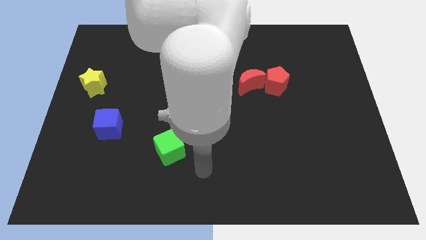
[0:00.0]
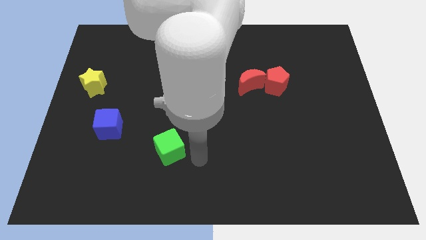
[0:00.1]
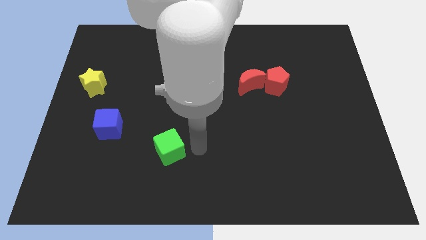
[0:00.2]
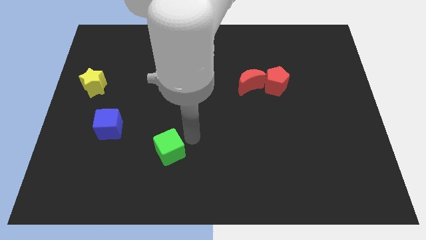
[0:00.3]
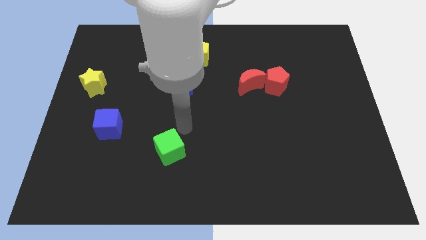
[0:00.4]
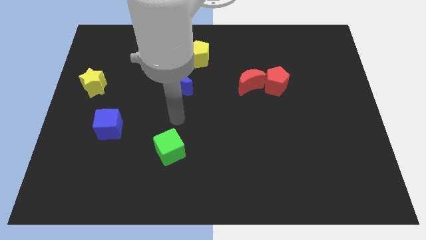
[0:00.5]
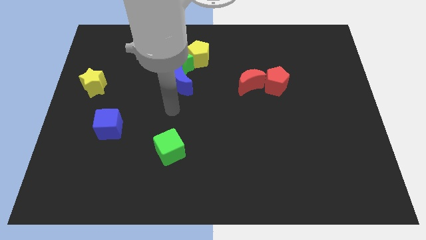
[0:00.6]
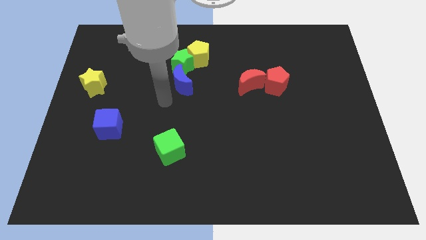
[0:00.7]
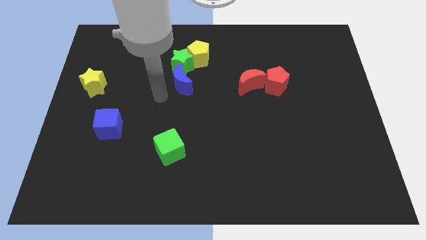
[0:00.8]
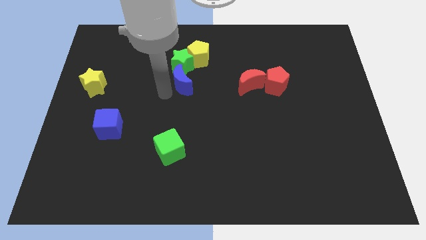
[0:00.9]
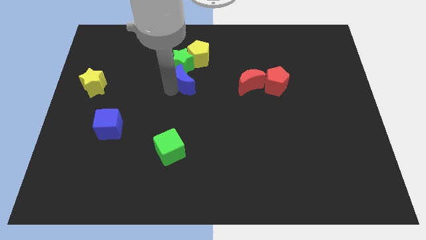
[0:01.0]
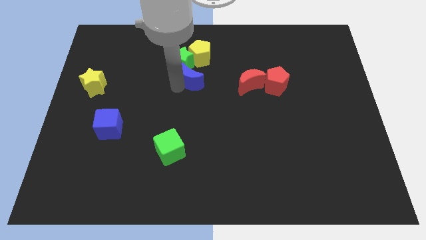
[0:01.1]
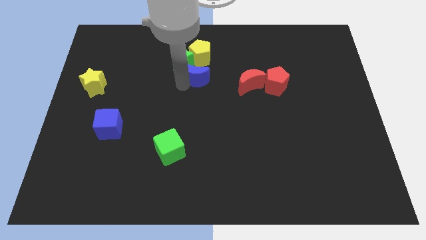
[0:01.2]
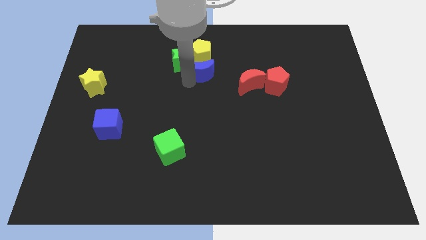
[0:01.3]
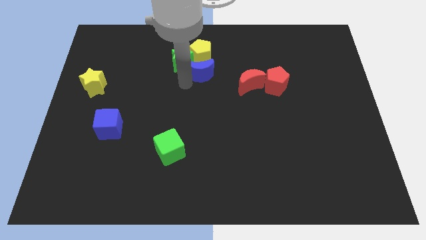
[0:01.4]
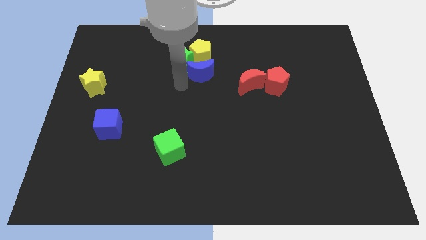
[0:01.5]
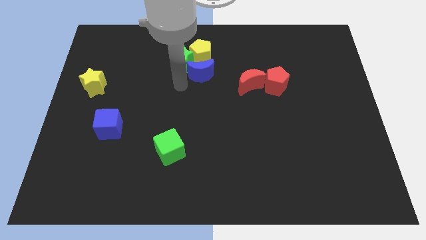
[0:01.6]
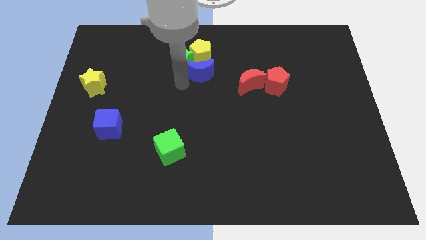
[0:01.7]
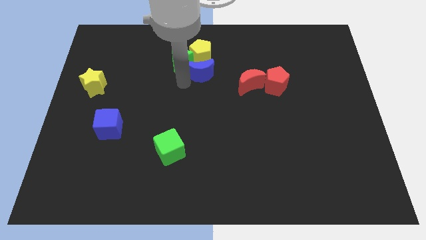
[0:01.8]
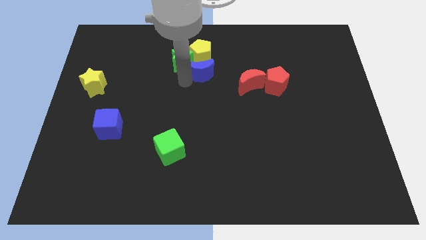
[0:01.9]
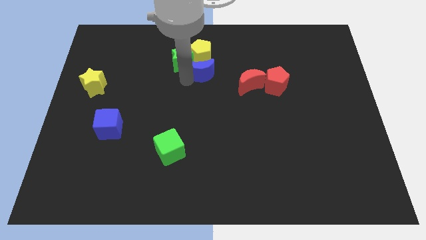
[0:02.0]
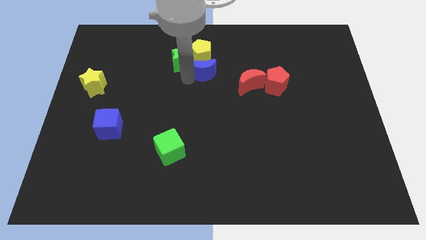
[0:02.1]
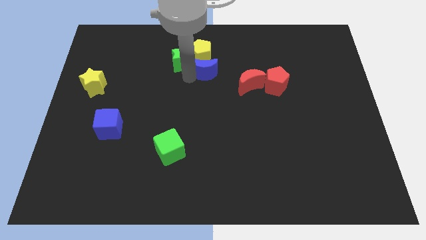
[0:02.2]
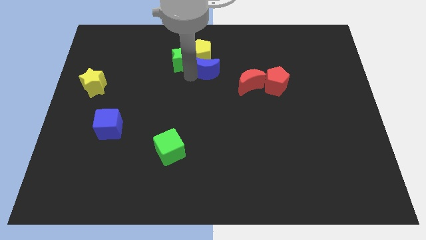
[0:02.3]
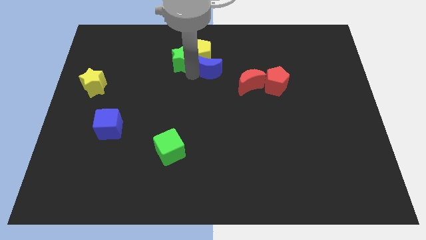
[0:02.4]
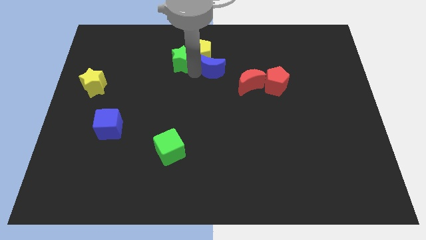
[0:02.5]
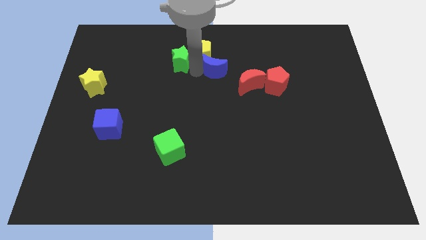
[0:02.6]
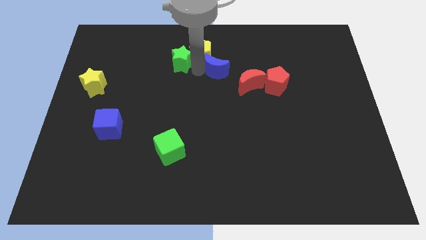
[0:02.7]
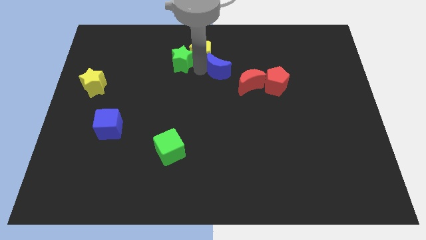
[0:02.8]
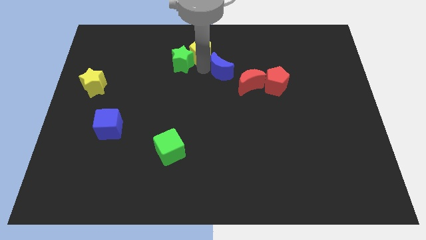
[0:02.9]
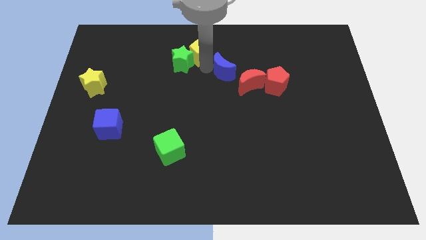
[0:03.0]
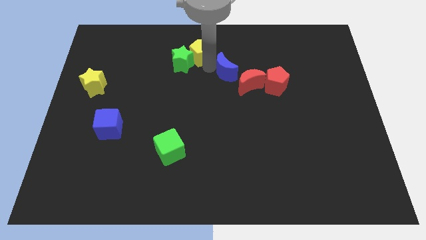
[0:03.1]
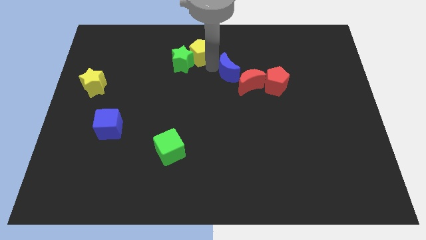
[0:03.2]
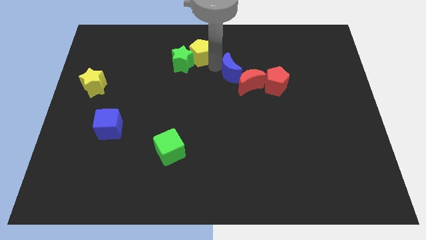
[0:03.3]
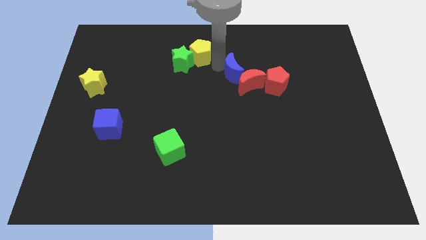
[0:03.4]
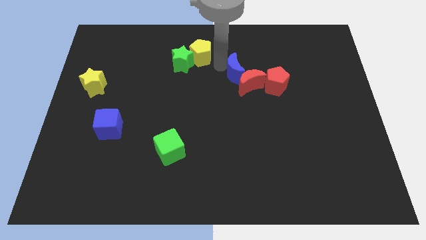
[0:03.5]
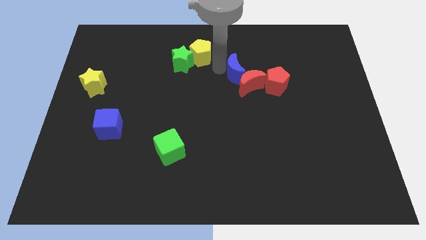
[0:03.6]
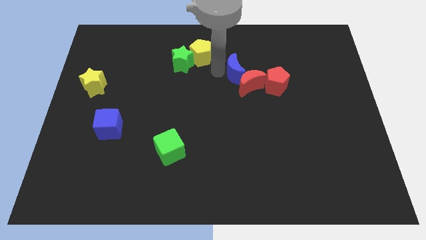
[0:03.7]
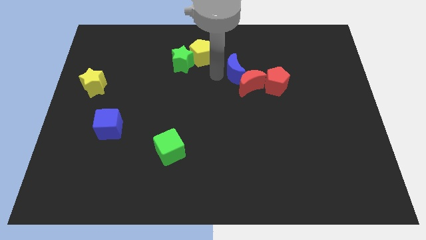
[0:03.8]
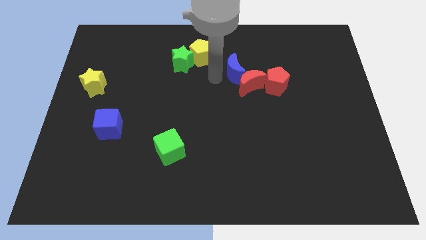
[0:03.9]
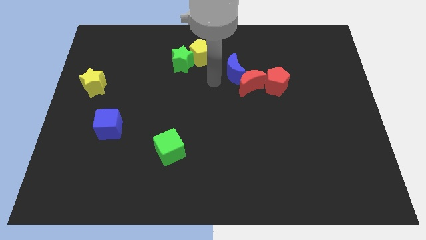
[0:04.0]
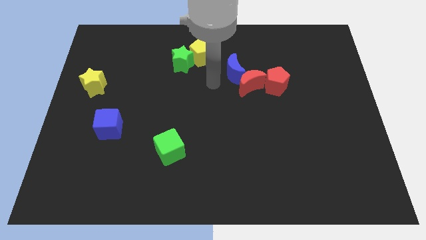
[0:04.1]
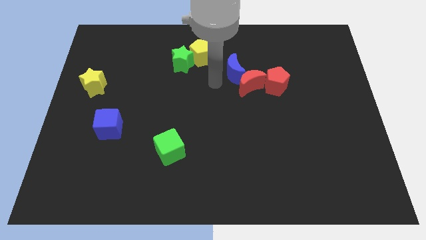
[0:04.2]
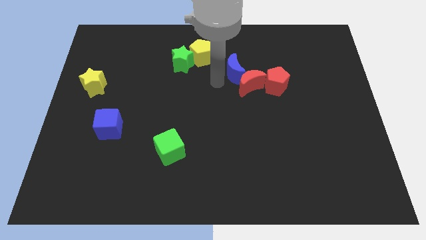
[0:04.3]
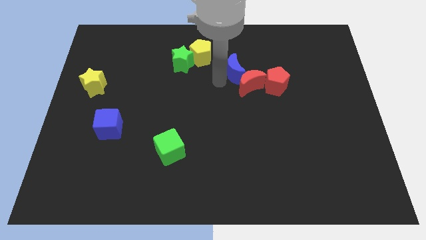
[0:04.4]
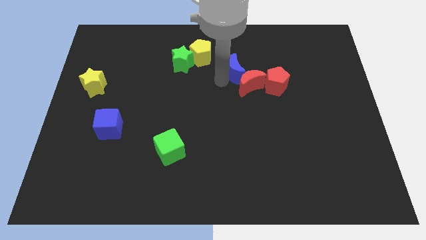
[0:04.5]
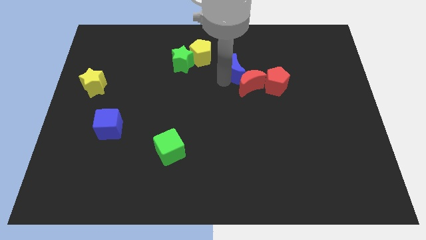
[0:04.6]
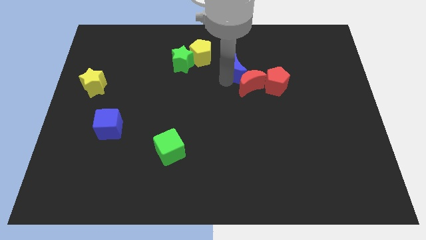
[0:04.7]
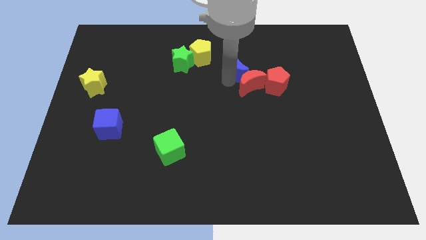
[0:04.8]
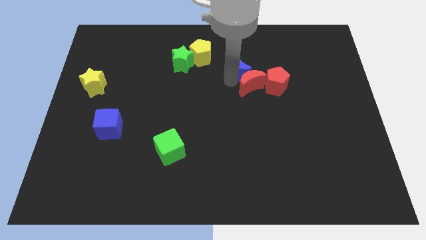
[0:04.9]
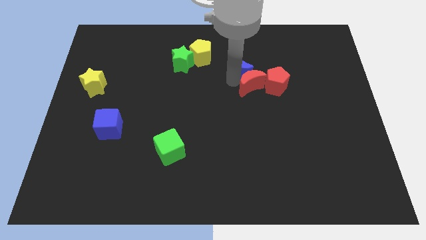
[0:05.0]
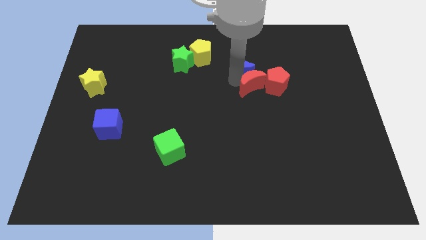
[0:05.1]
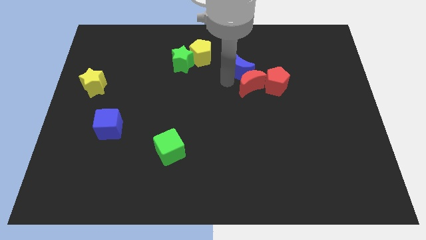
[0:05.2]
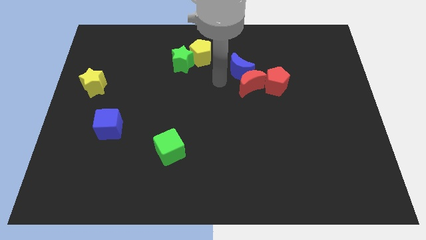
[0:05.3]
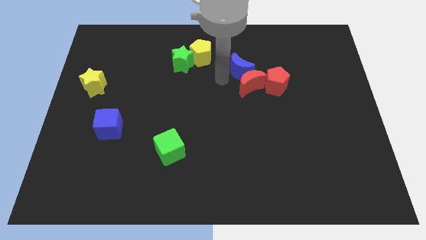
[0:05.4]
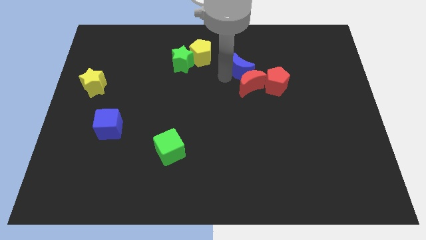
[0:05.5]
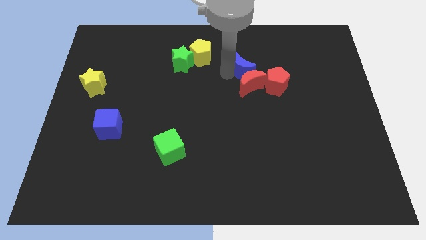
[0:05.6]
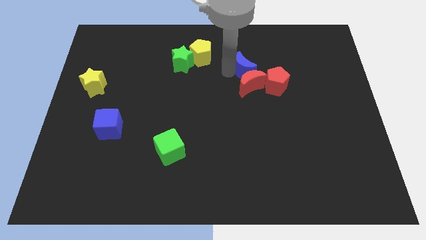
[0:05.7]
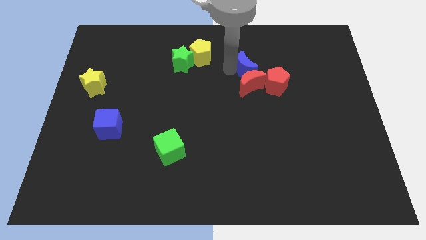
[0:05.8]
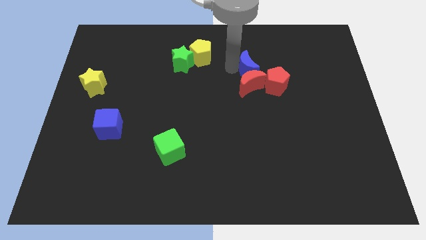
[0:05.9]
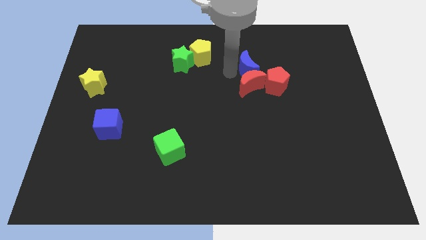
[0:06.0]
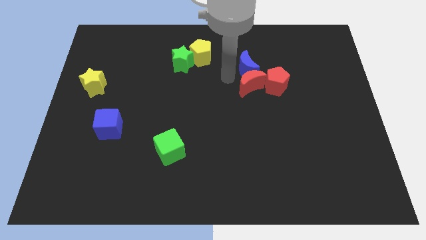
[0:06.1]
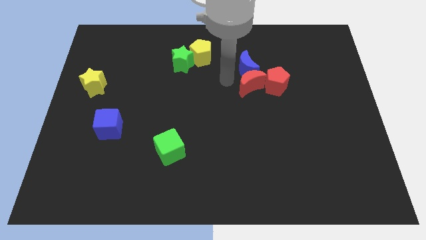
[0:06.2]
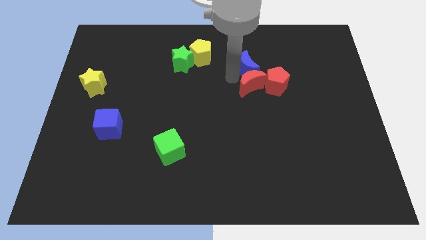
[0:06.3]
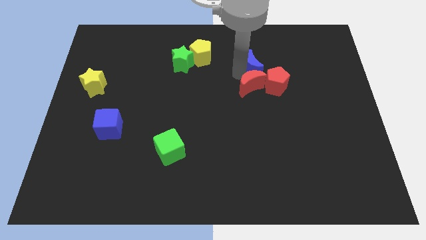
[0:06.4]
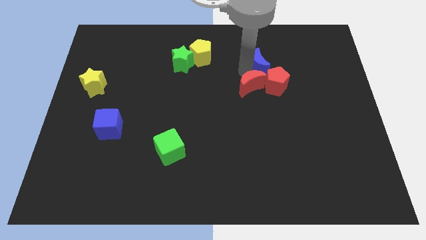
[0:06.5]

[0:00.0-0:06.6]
put the blue moon above the red pentagon

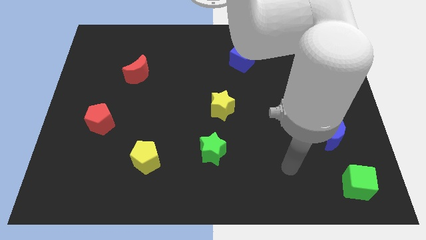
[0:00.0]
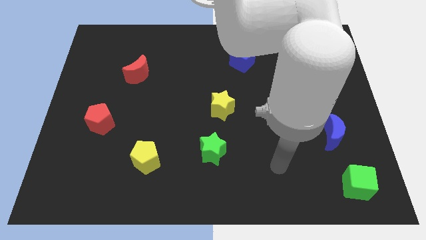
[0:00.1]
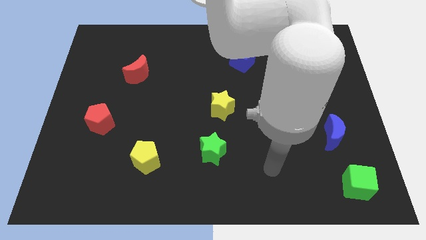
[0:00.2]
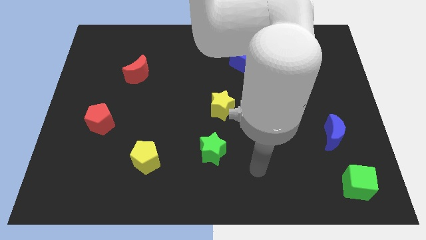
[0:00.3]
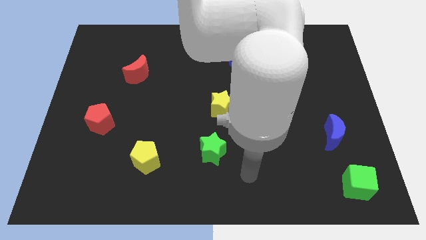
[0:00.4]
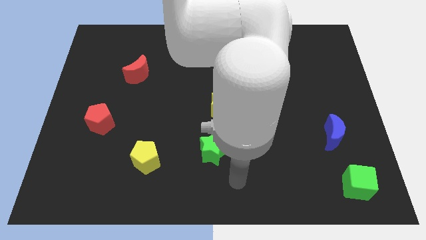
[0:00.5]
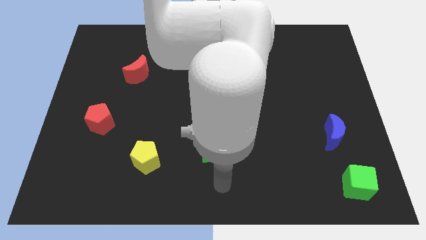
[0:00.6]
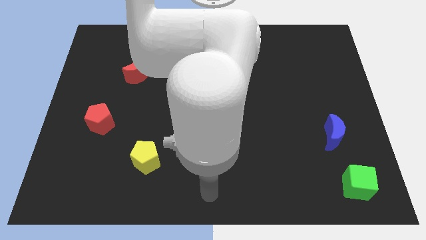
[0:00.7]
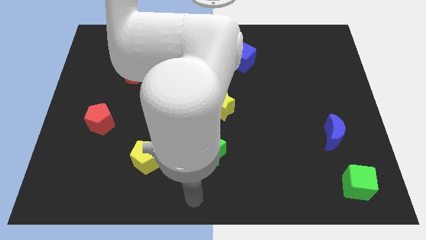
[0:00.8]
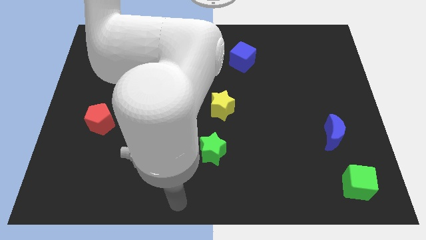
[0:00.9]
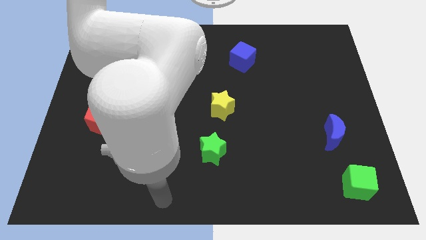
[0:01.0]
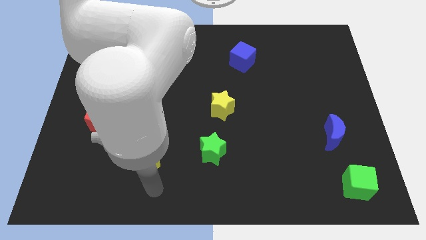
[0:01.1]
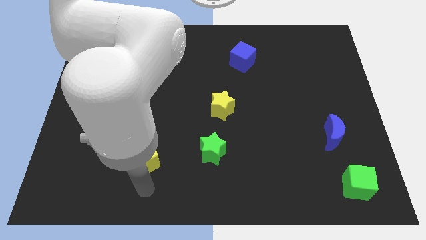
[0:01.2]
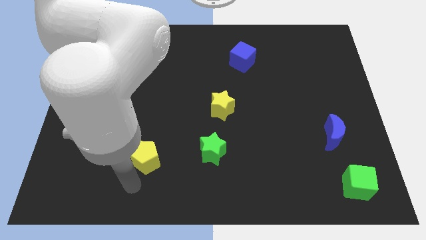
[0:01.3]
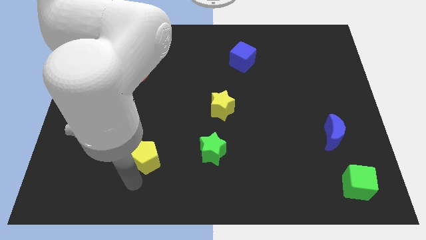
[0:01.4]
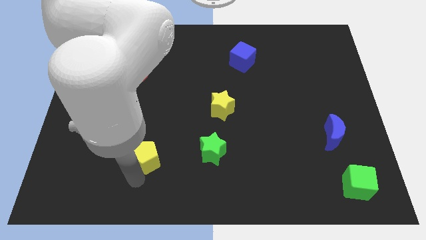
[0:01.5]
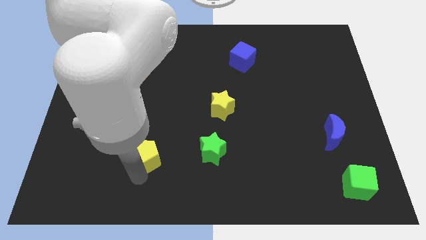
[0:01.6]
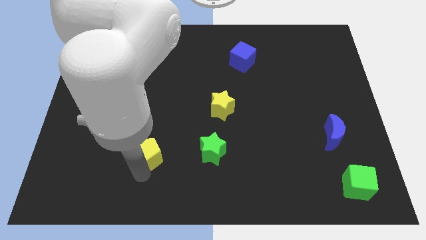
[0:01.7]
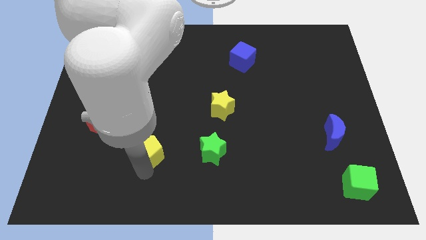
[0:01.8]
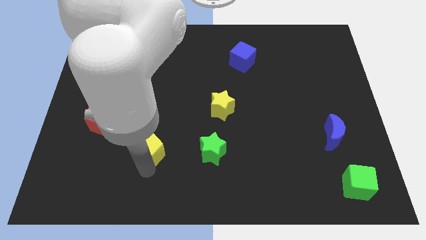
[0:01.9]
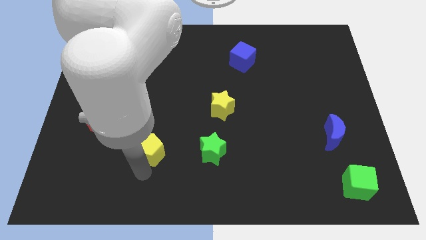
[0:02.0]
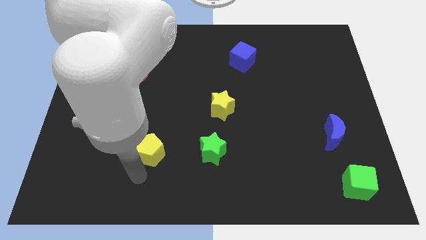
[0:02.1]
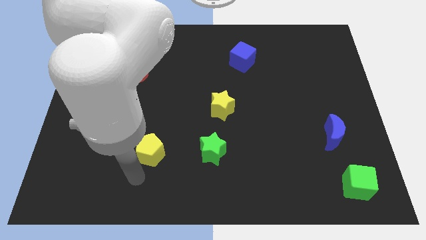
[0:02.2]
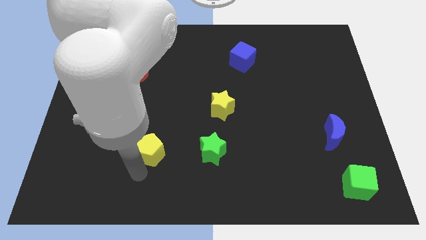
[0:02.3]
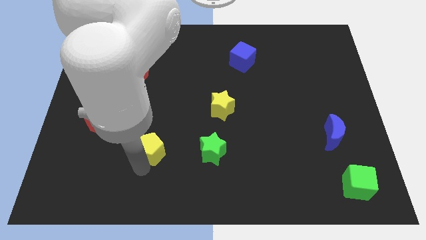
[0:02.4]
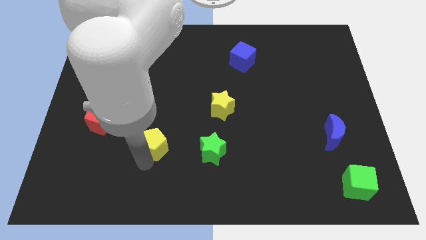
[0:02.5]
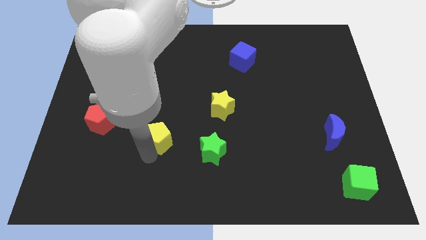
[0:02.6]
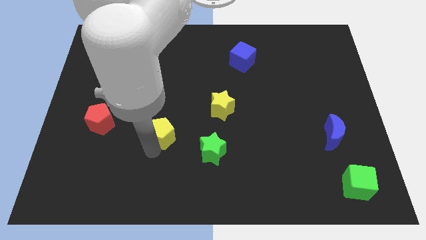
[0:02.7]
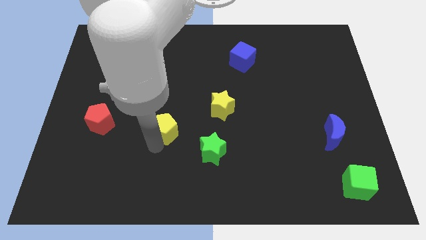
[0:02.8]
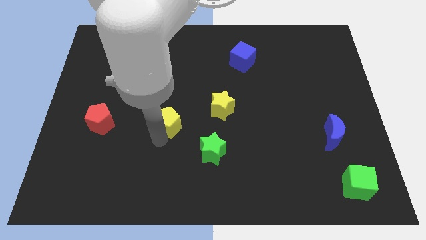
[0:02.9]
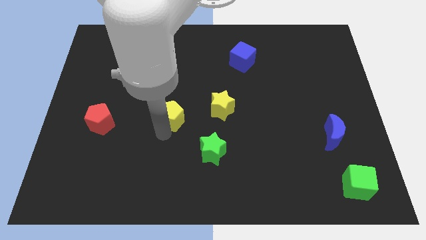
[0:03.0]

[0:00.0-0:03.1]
slide the yellow pentagon to the left side of the yellow star
